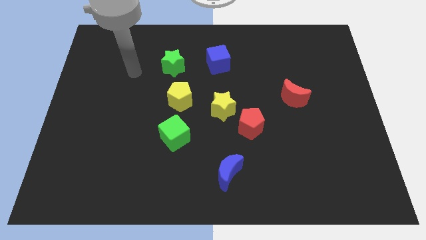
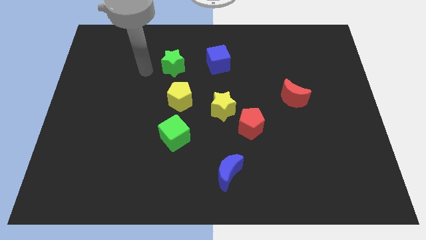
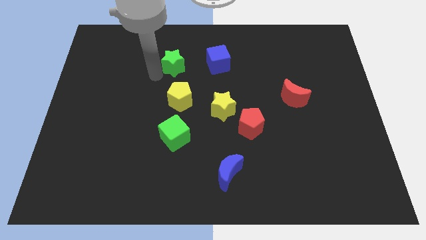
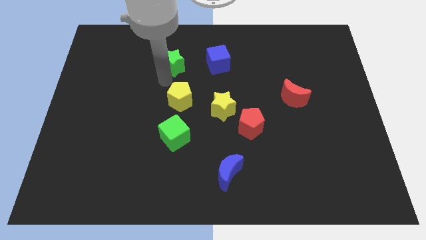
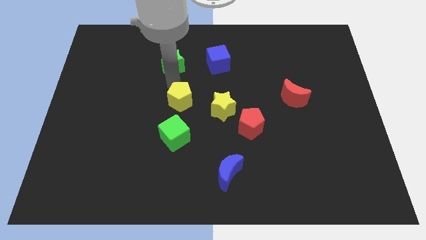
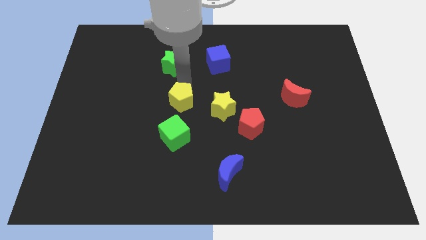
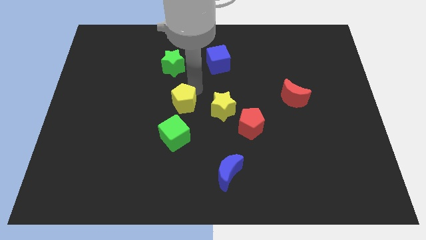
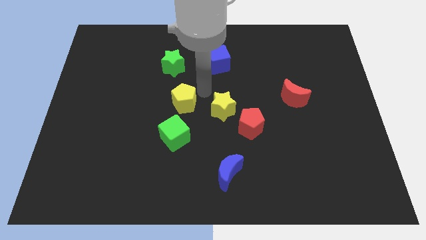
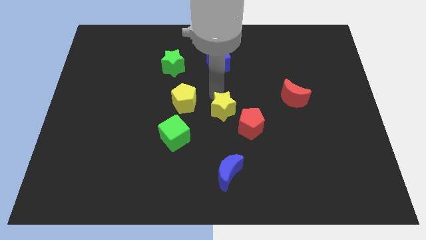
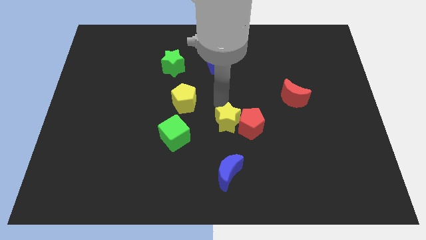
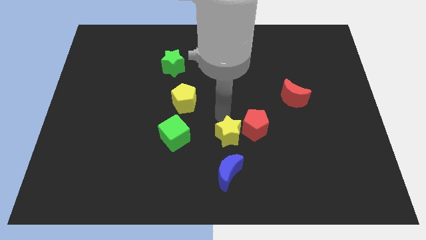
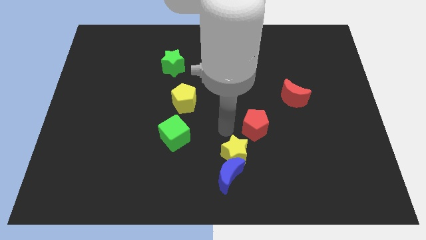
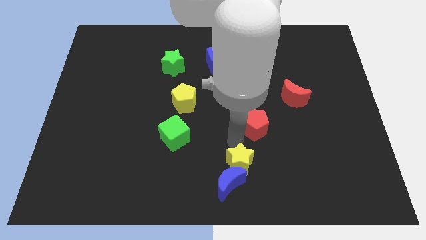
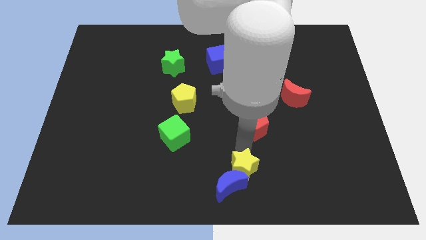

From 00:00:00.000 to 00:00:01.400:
separate the red pentagon from the yellow star

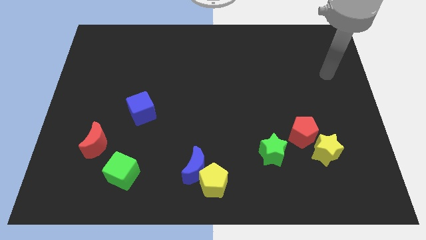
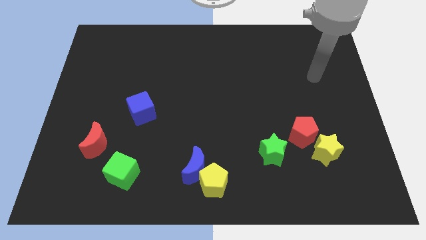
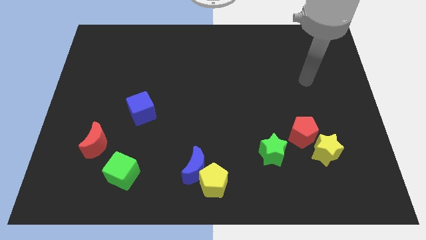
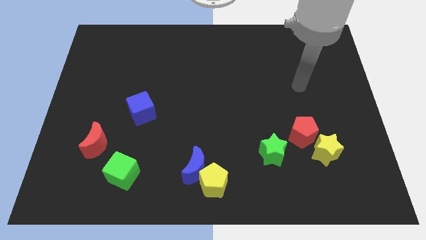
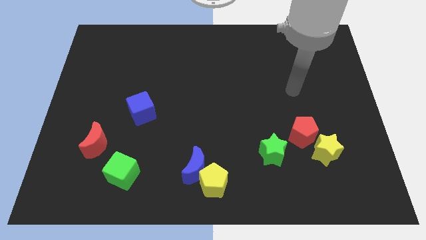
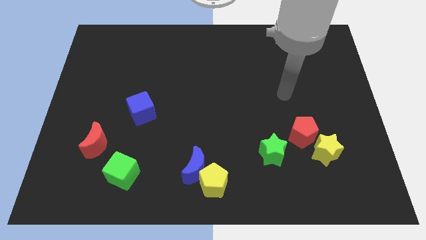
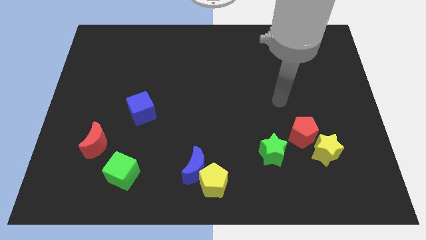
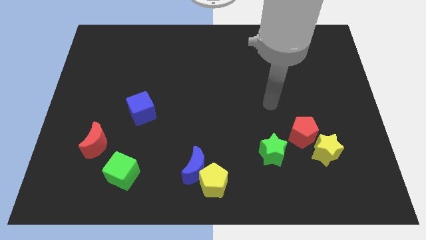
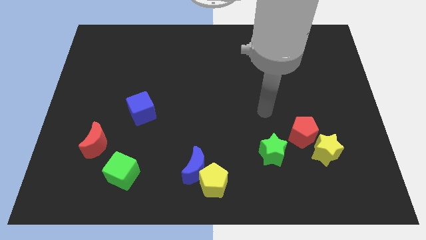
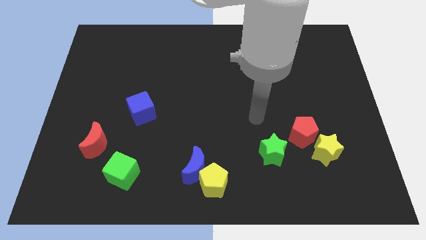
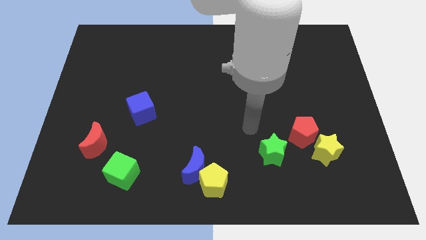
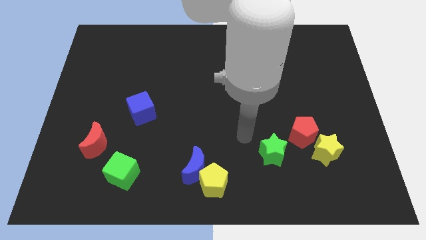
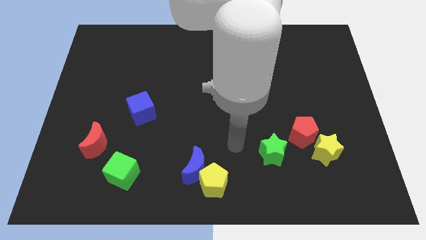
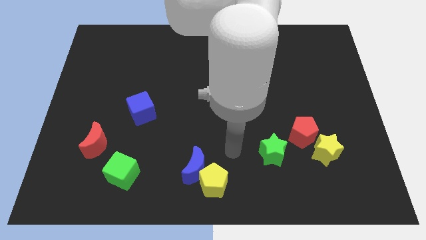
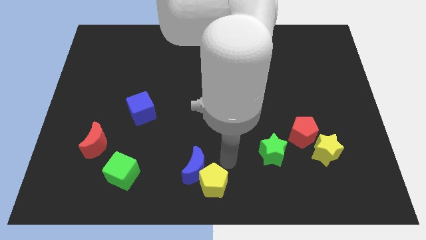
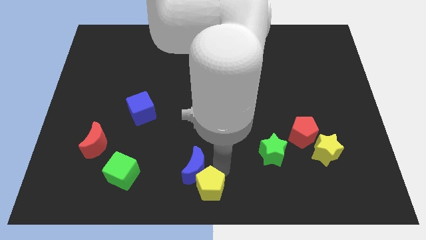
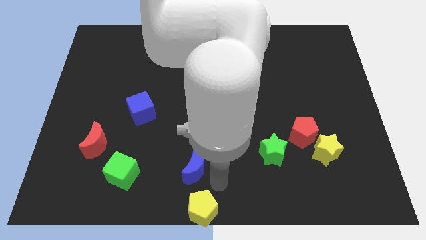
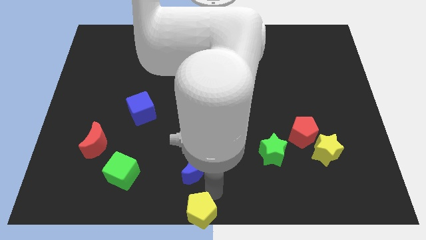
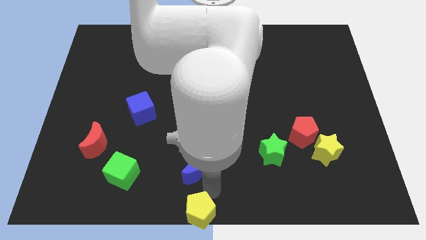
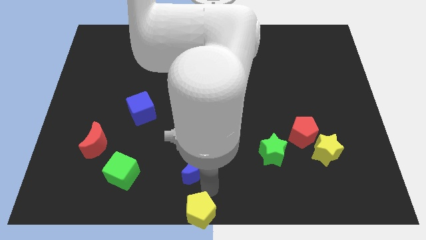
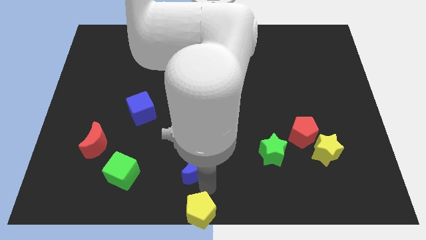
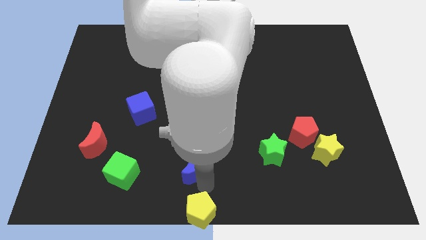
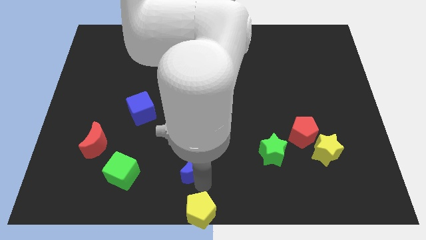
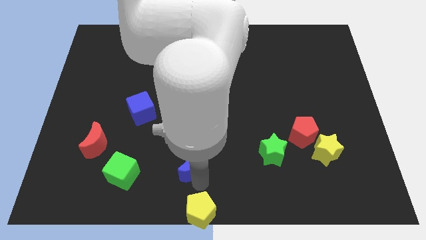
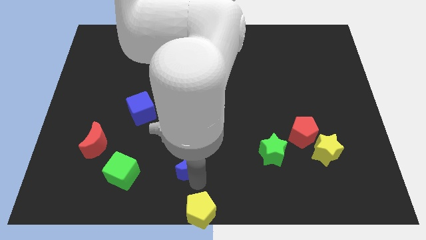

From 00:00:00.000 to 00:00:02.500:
move the blue moon away from the yellow pentagon

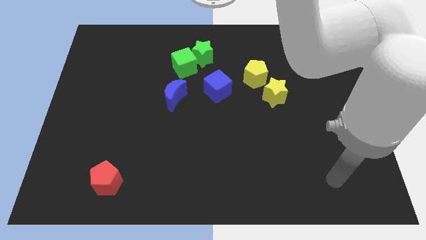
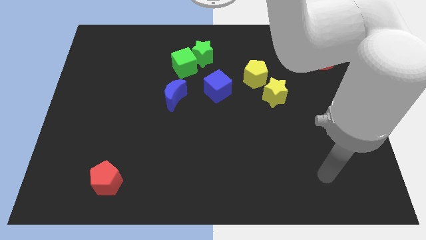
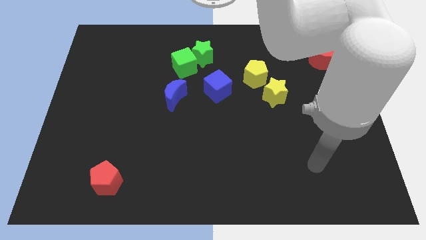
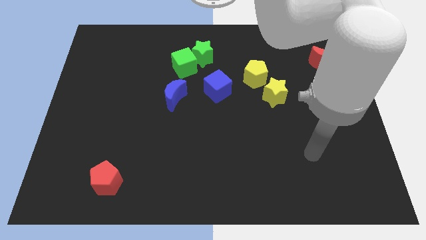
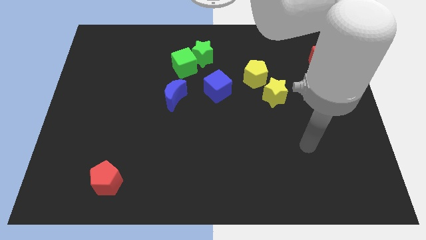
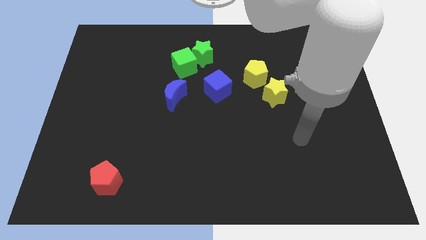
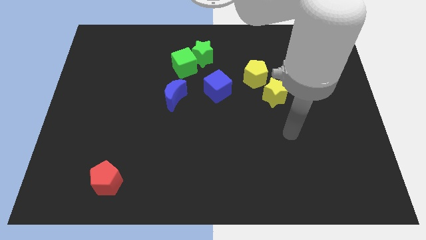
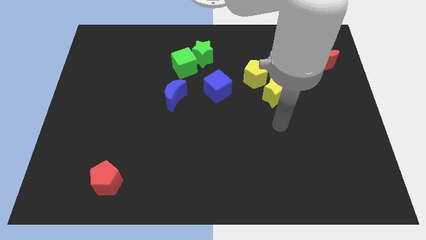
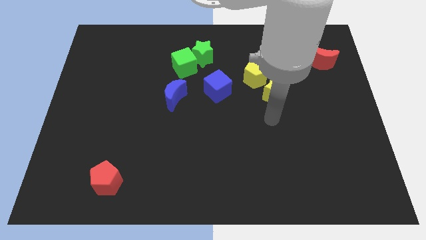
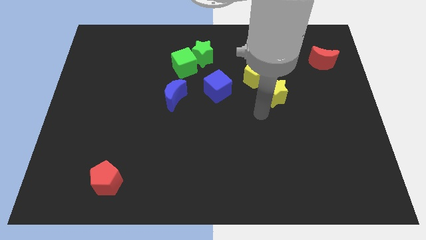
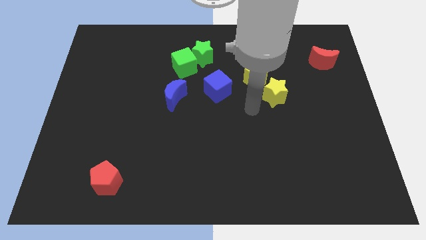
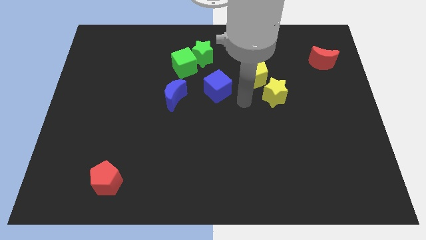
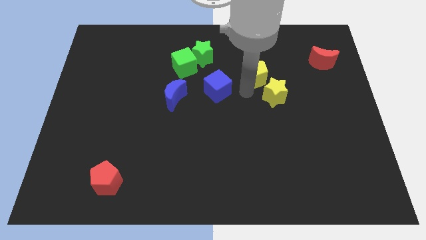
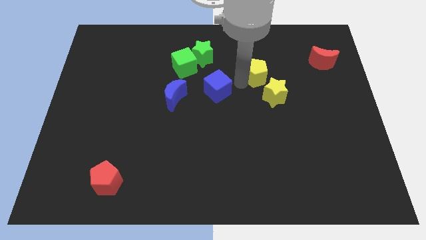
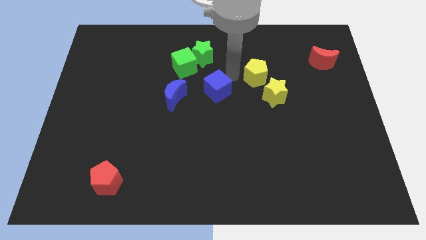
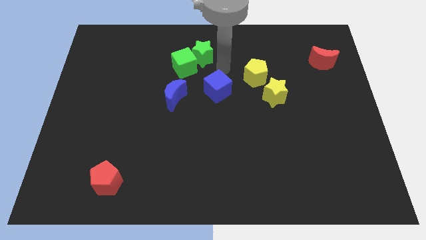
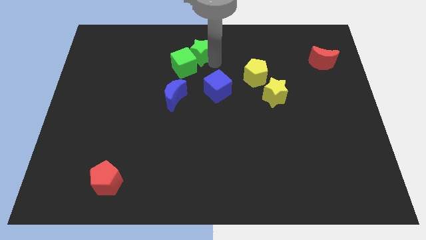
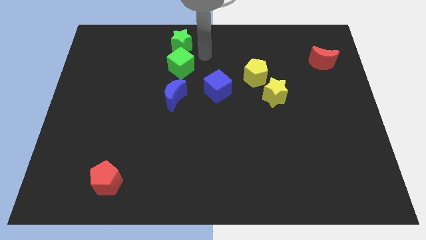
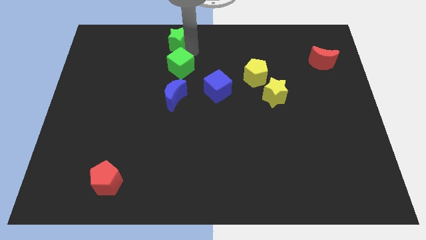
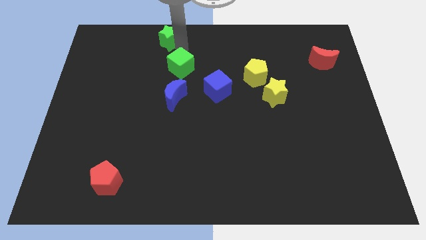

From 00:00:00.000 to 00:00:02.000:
separate the green cube from the green star

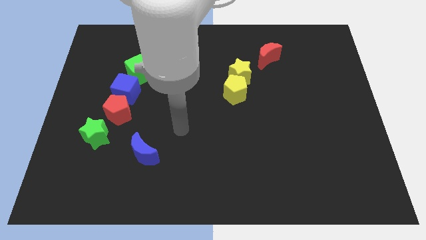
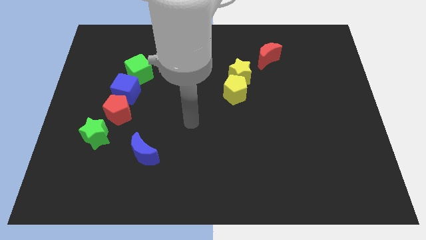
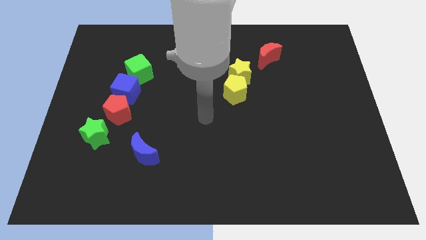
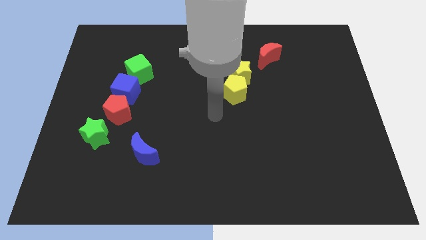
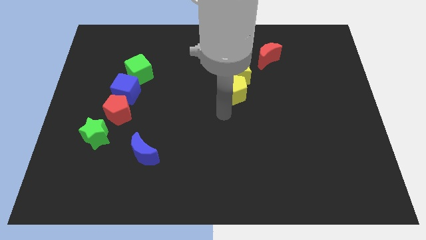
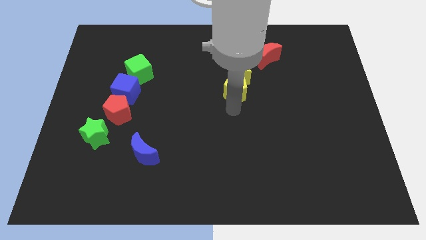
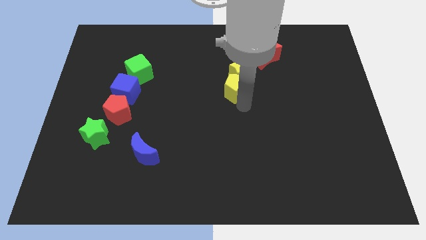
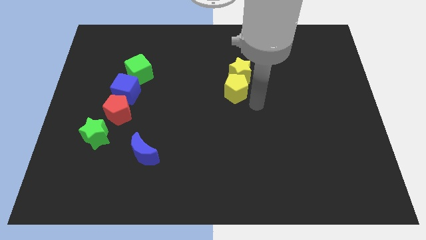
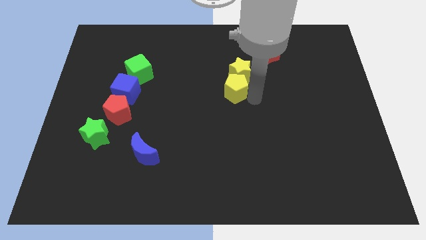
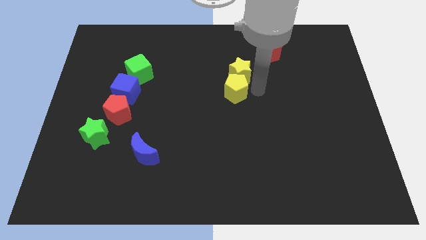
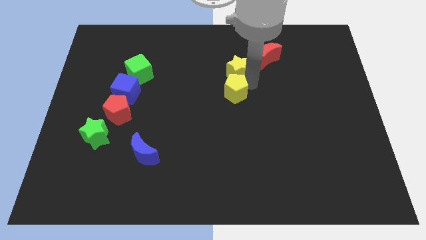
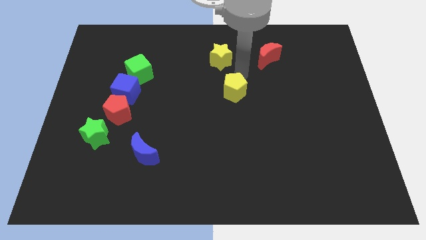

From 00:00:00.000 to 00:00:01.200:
move the yellow pentagon away from the yellow star

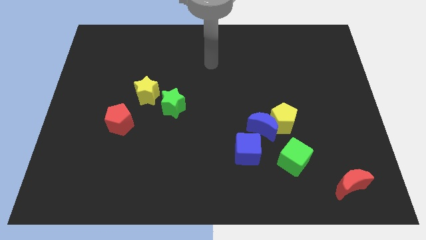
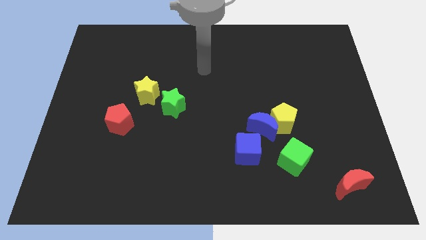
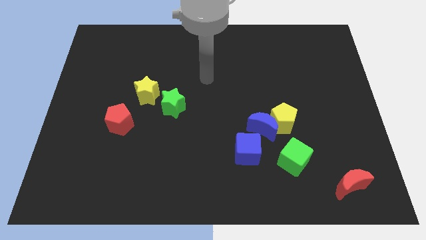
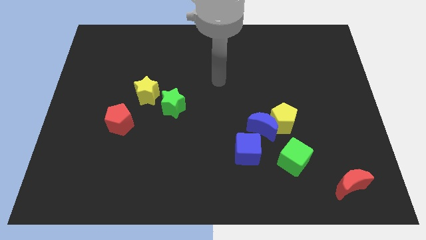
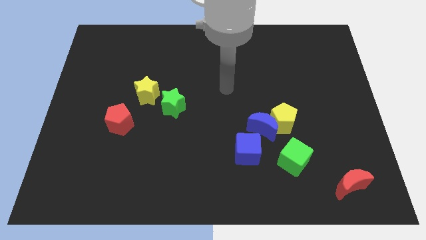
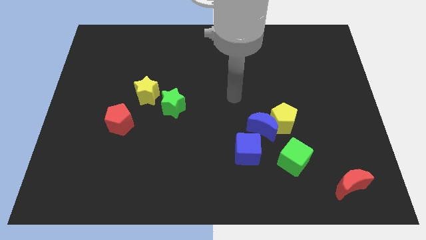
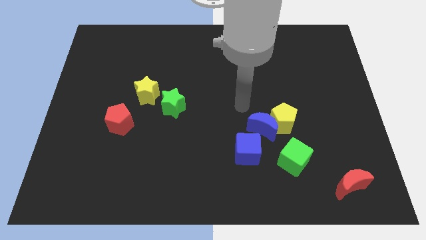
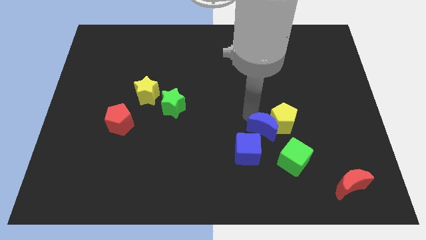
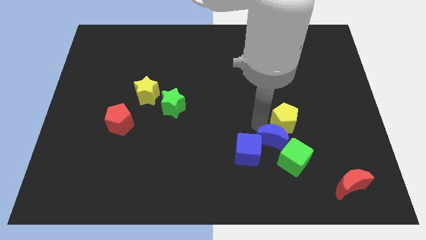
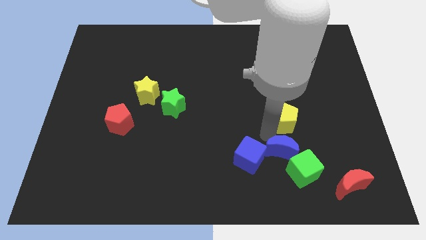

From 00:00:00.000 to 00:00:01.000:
separate the yellow pentagon from the blue moon and green cube

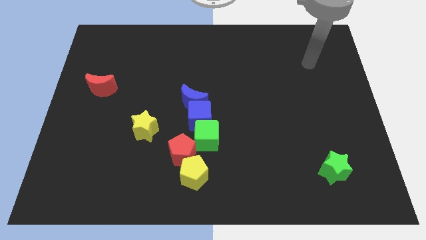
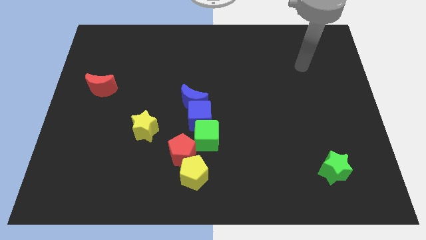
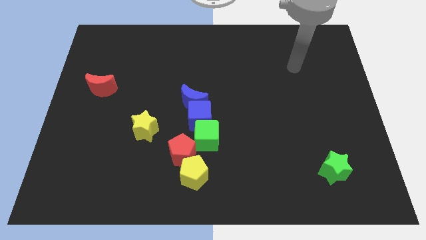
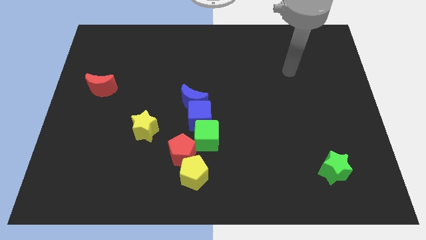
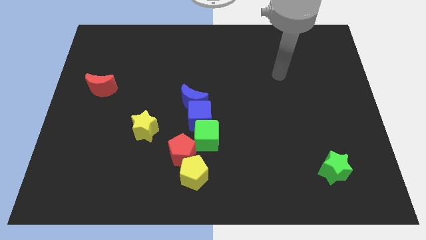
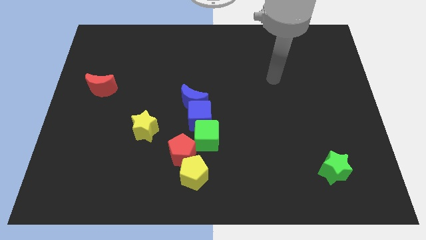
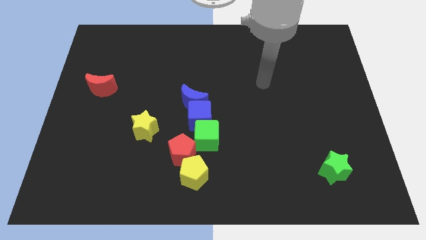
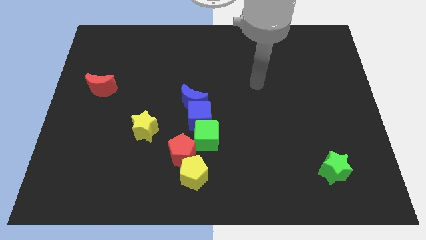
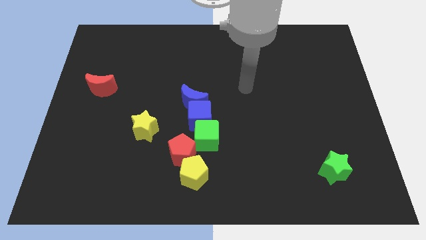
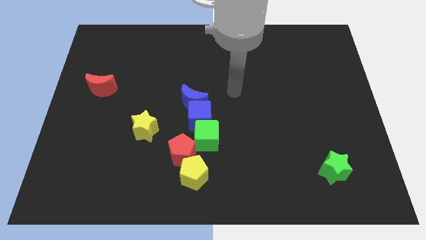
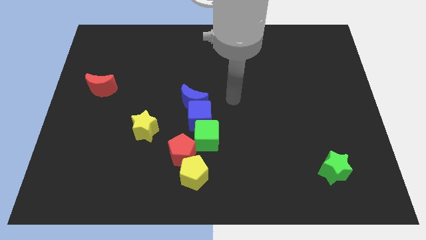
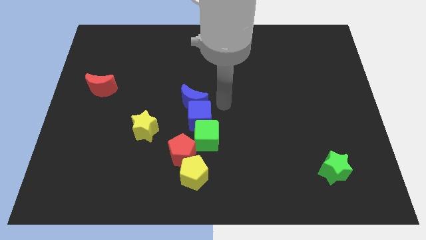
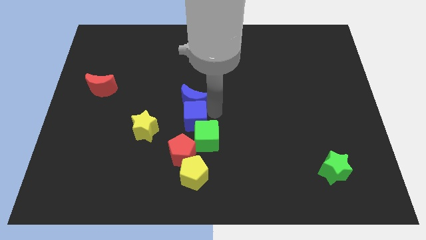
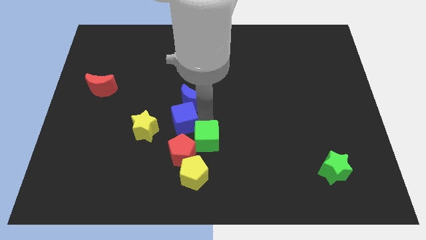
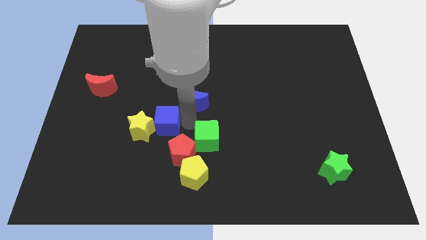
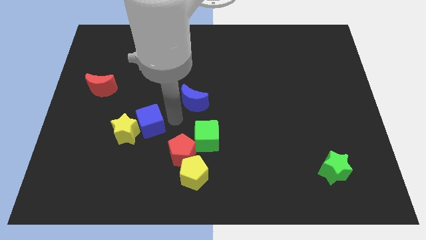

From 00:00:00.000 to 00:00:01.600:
pull the blue moon apart from the blue cube
